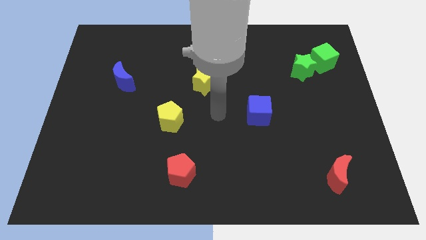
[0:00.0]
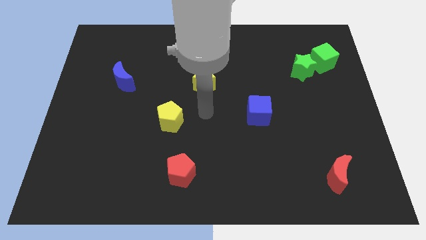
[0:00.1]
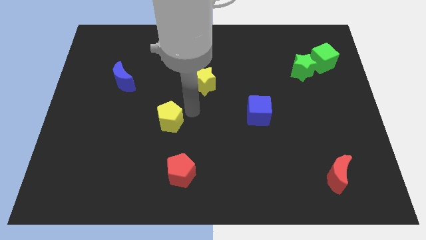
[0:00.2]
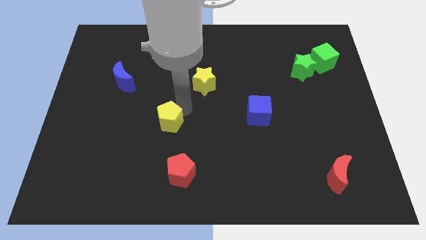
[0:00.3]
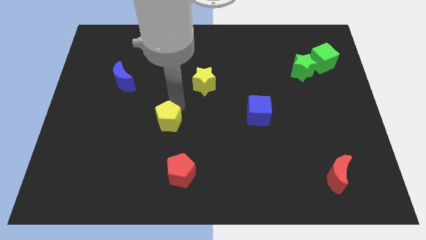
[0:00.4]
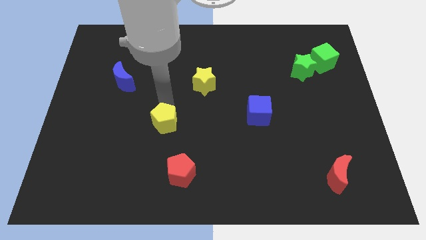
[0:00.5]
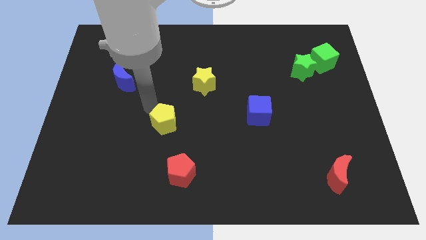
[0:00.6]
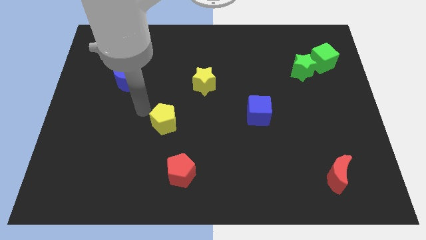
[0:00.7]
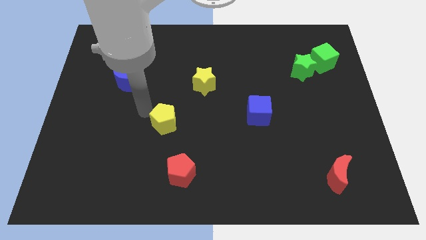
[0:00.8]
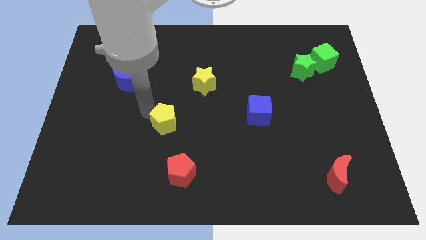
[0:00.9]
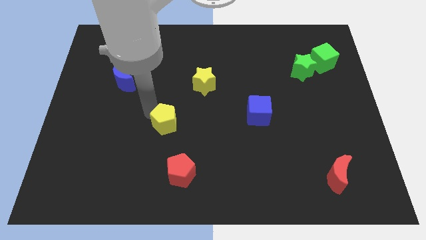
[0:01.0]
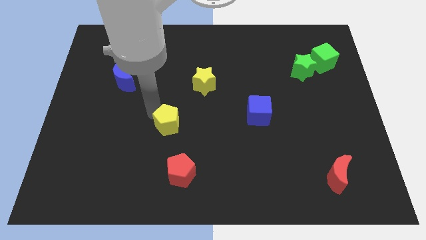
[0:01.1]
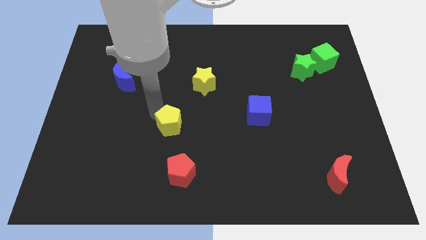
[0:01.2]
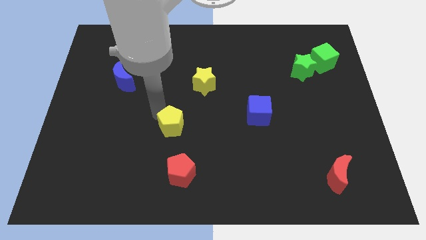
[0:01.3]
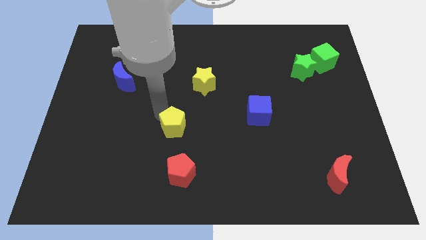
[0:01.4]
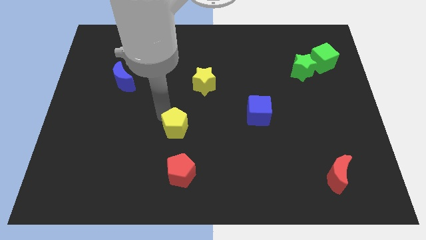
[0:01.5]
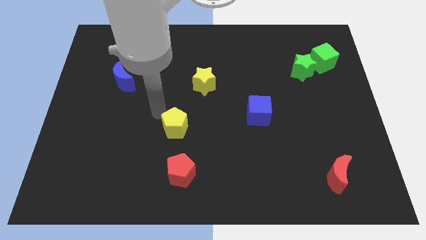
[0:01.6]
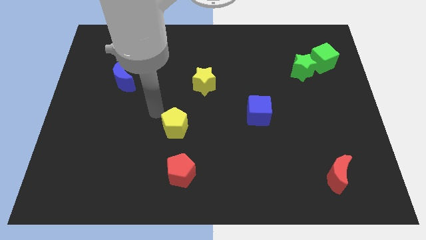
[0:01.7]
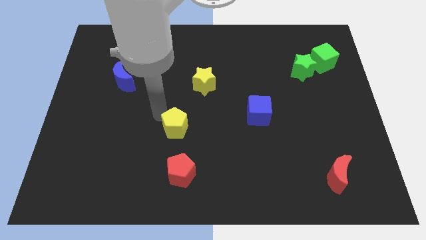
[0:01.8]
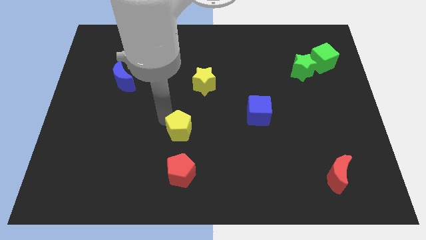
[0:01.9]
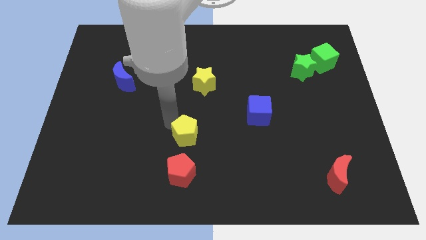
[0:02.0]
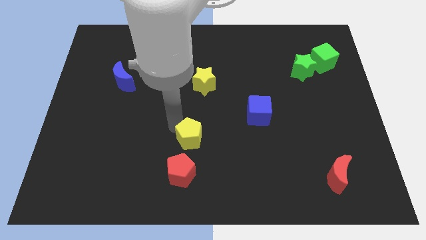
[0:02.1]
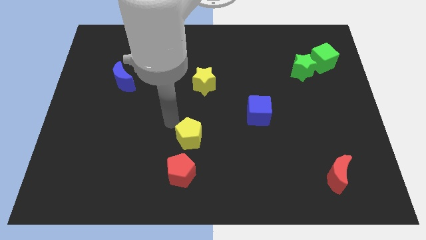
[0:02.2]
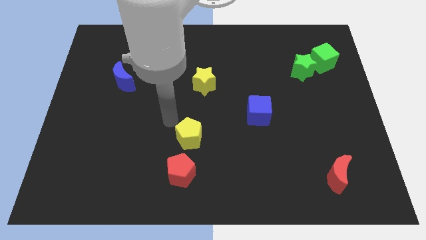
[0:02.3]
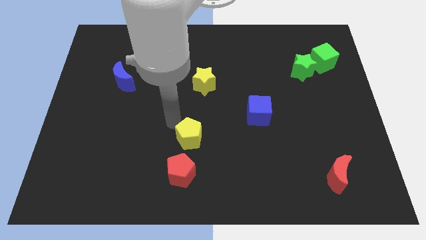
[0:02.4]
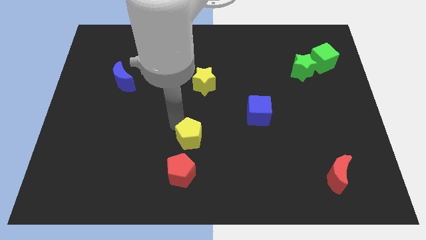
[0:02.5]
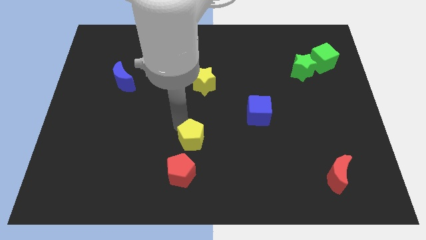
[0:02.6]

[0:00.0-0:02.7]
move the yellow pentagon down and right diagonally a little

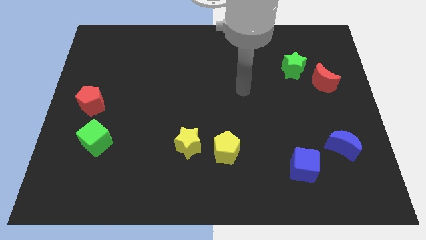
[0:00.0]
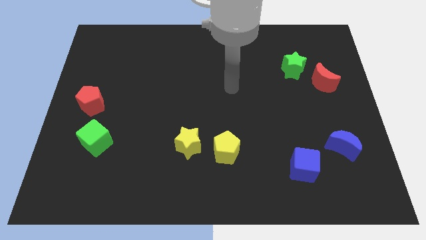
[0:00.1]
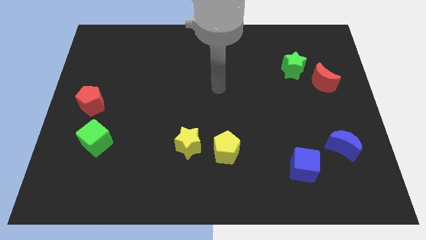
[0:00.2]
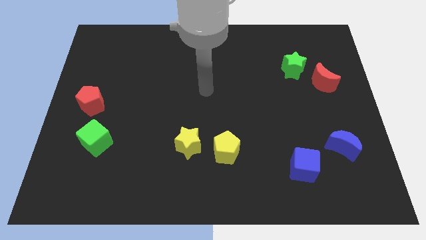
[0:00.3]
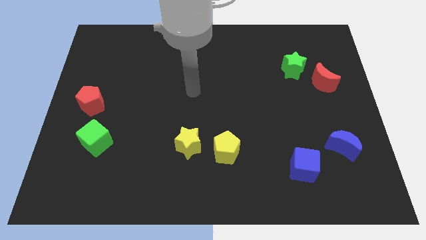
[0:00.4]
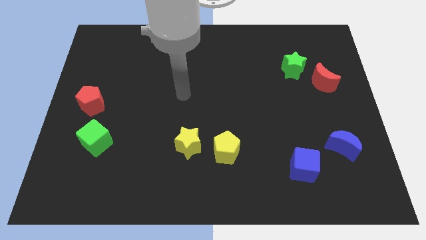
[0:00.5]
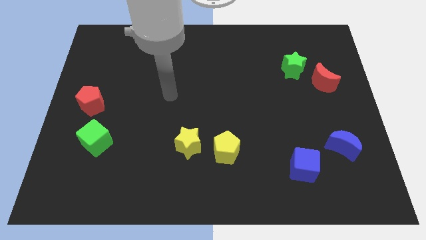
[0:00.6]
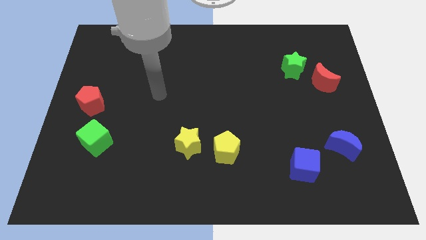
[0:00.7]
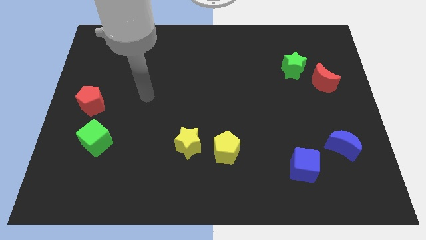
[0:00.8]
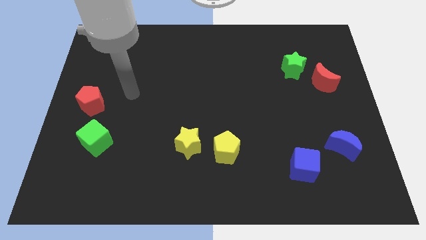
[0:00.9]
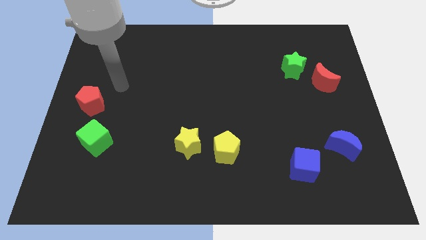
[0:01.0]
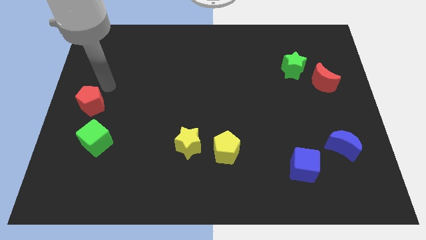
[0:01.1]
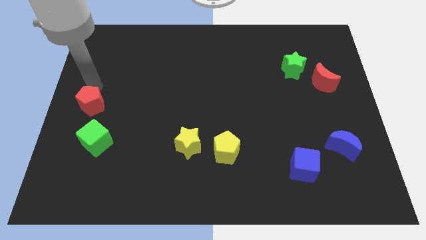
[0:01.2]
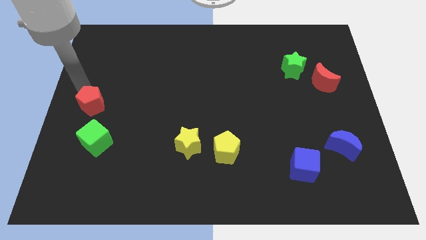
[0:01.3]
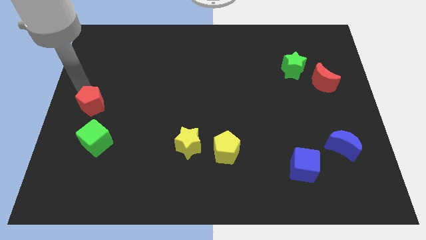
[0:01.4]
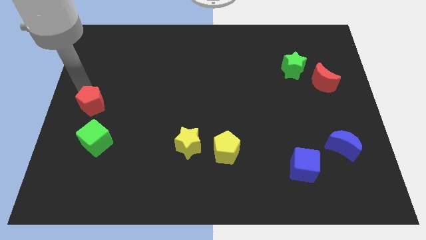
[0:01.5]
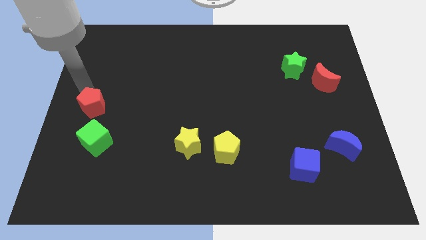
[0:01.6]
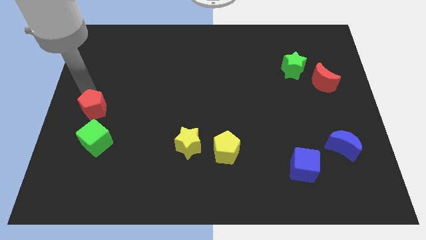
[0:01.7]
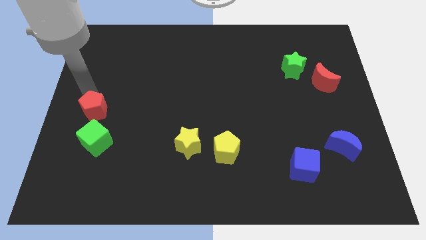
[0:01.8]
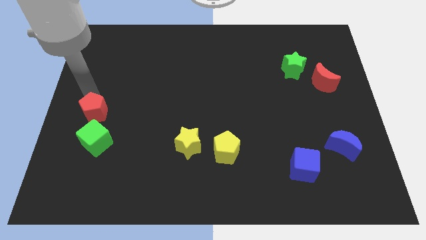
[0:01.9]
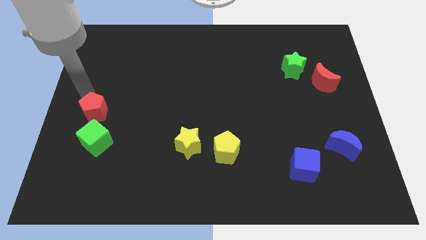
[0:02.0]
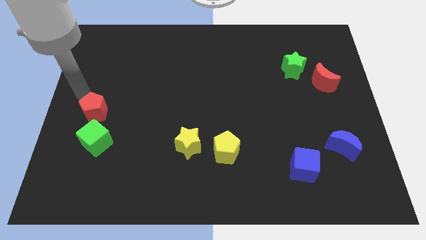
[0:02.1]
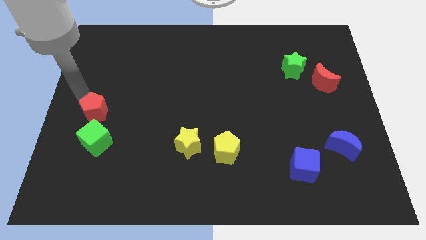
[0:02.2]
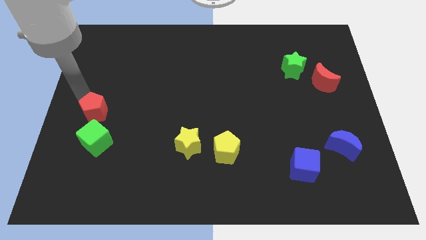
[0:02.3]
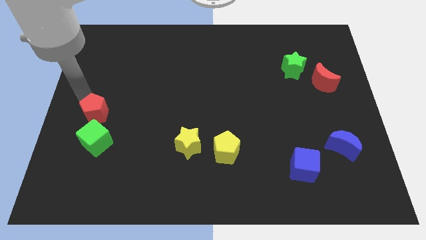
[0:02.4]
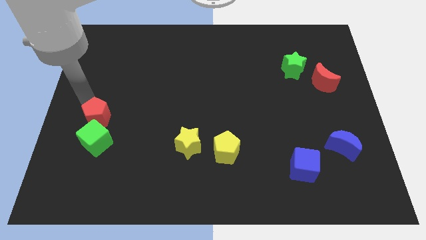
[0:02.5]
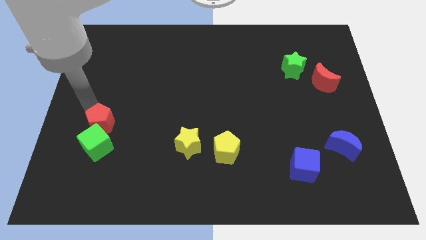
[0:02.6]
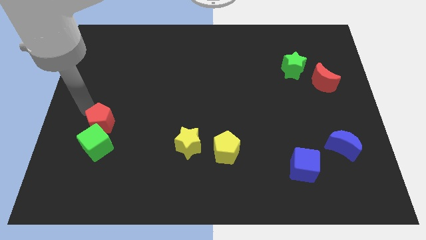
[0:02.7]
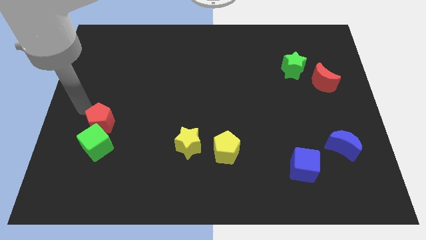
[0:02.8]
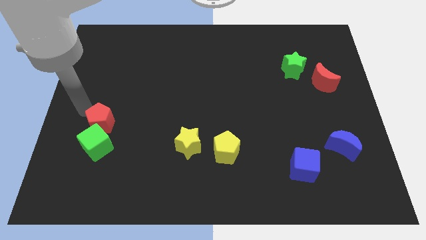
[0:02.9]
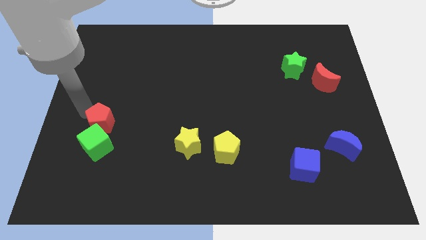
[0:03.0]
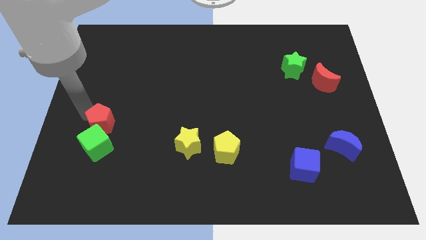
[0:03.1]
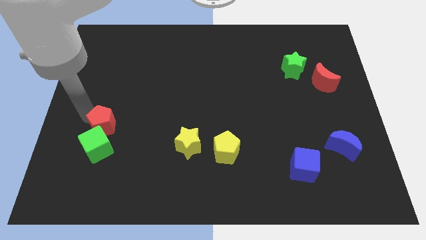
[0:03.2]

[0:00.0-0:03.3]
push the red pentagon downwards and then to the right a little

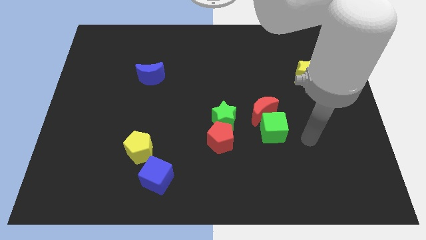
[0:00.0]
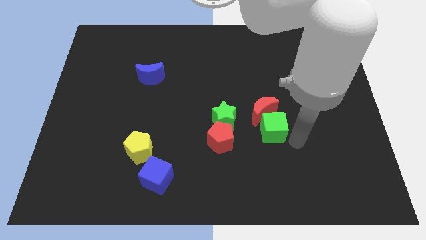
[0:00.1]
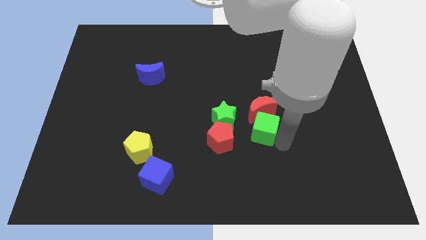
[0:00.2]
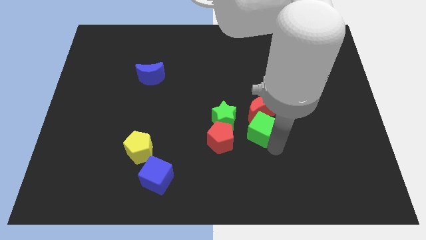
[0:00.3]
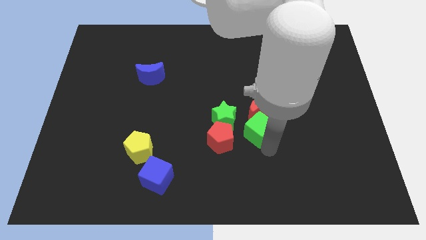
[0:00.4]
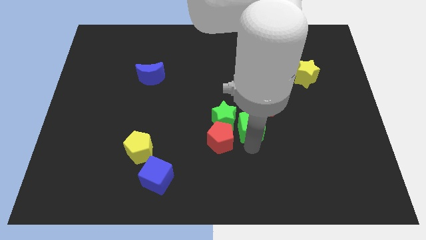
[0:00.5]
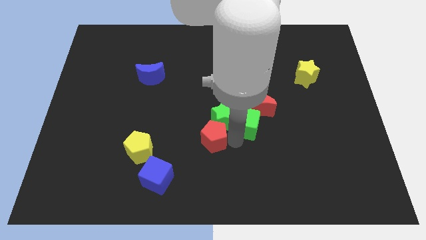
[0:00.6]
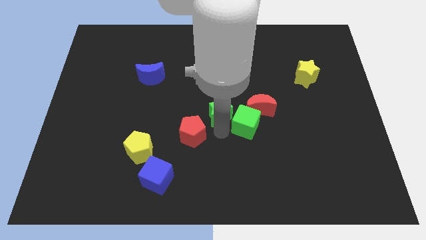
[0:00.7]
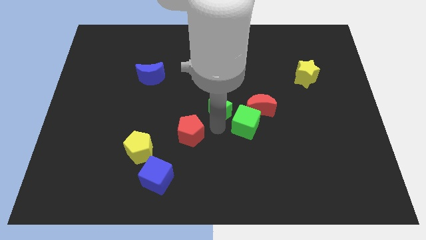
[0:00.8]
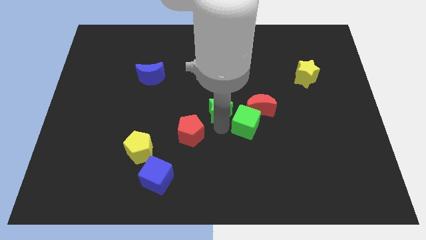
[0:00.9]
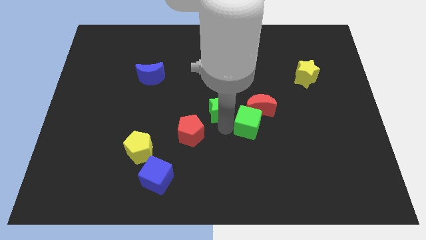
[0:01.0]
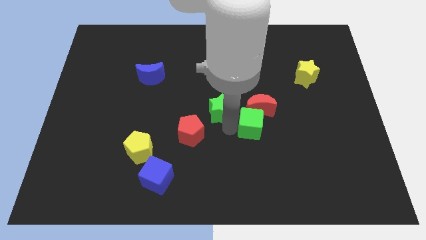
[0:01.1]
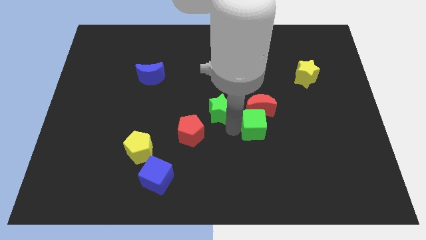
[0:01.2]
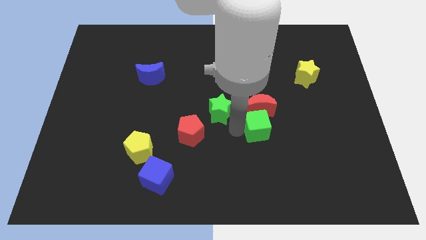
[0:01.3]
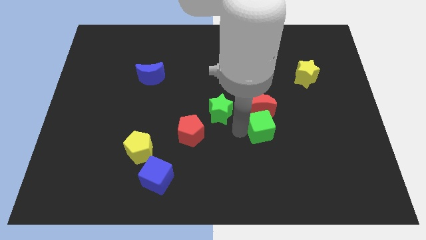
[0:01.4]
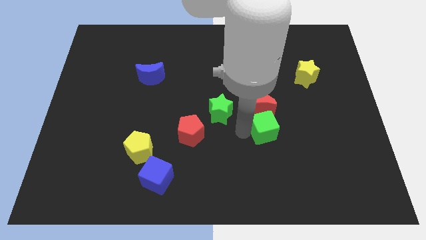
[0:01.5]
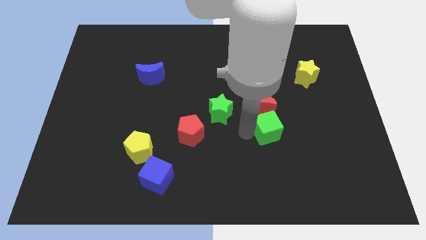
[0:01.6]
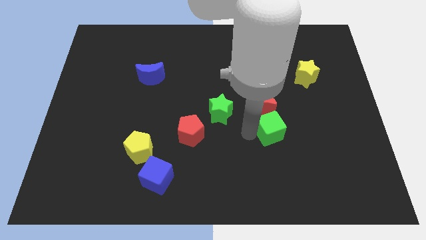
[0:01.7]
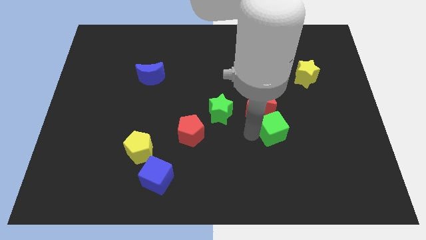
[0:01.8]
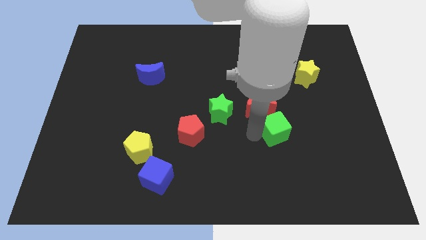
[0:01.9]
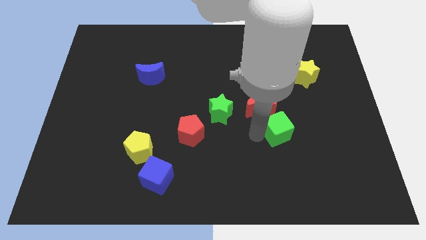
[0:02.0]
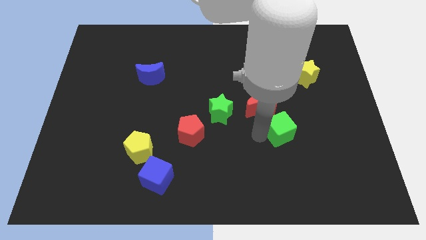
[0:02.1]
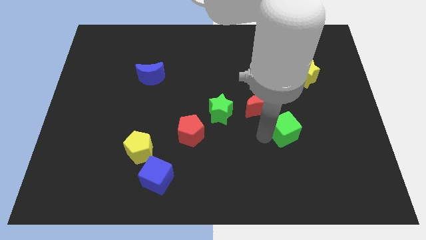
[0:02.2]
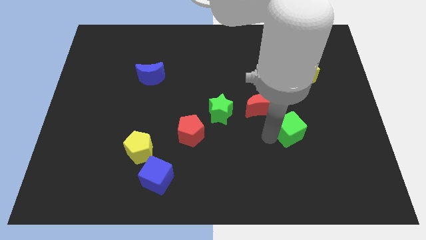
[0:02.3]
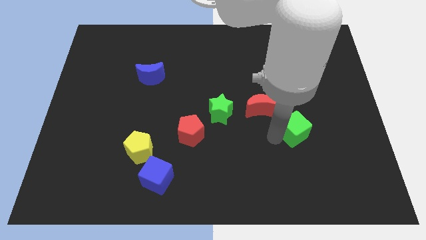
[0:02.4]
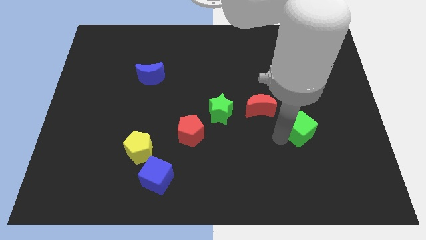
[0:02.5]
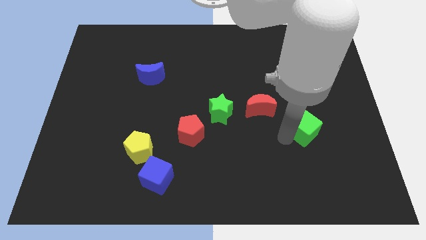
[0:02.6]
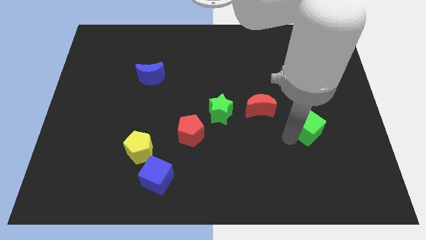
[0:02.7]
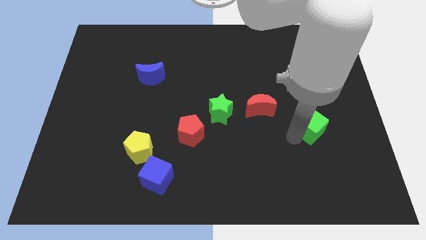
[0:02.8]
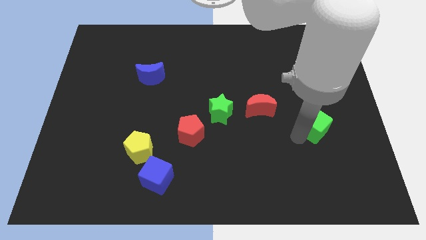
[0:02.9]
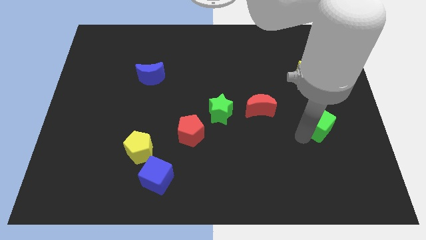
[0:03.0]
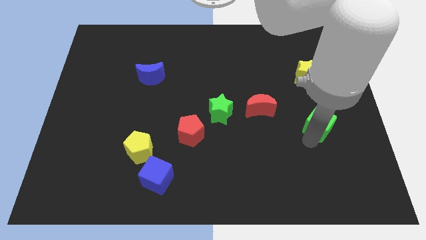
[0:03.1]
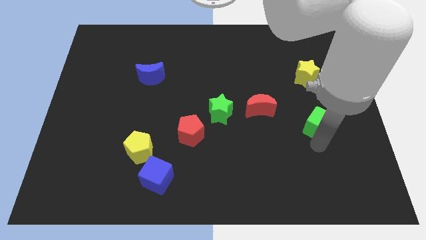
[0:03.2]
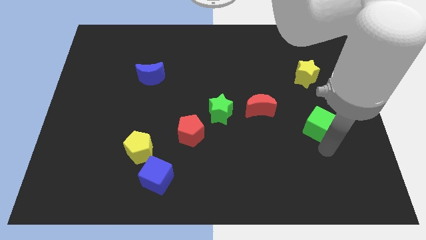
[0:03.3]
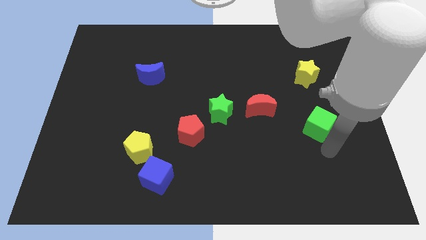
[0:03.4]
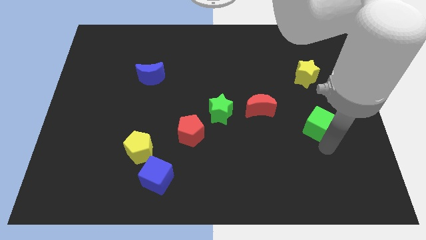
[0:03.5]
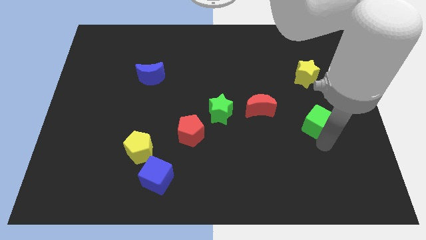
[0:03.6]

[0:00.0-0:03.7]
move the green cube a bit up and to the right
